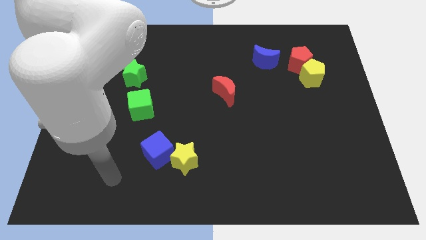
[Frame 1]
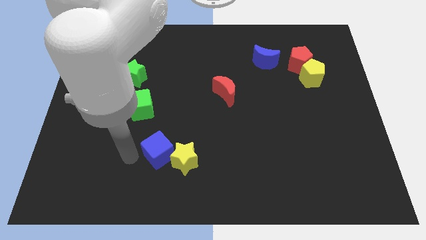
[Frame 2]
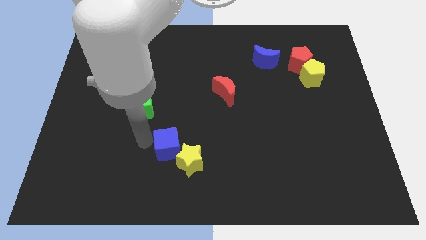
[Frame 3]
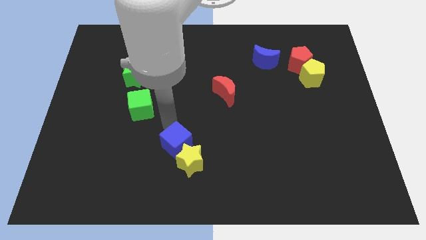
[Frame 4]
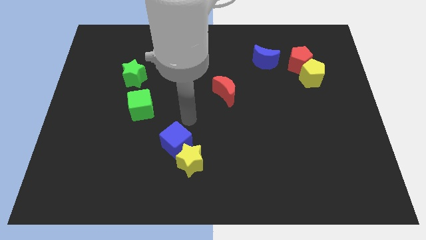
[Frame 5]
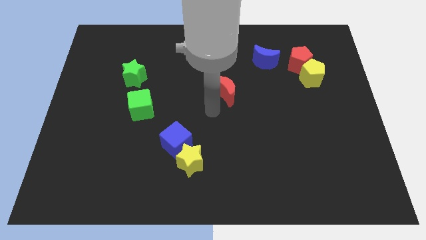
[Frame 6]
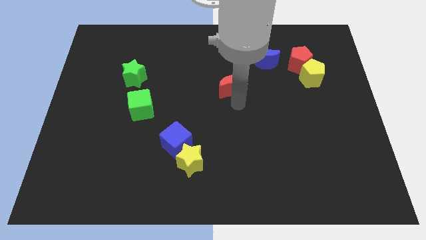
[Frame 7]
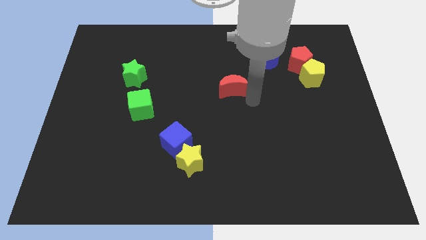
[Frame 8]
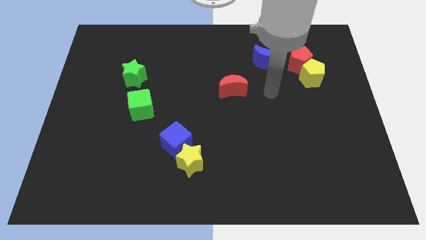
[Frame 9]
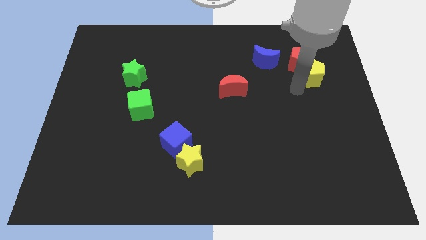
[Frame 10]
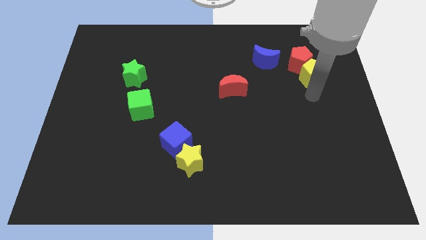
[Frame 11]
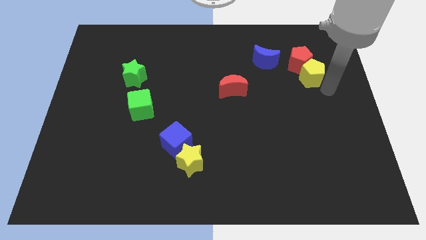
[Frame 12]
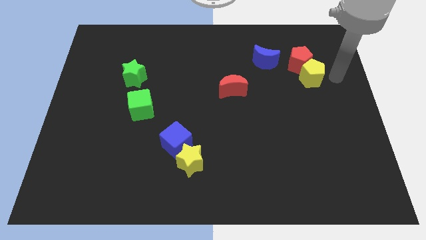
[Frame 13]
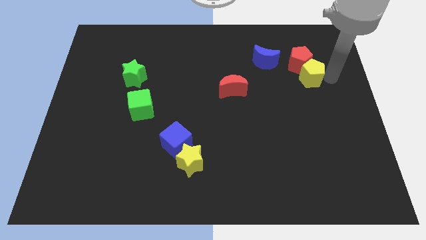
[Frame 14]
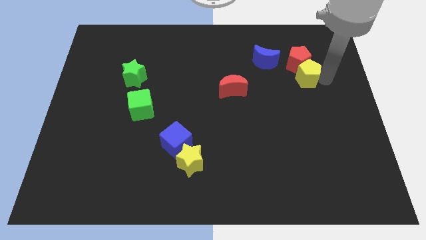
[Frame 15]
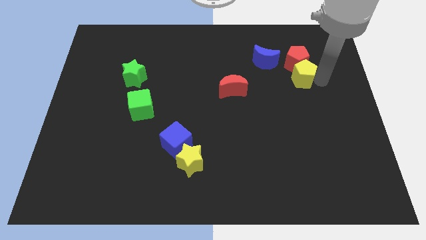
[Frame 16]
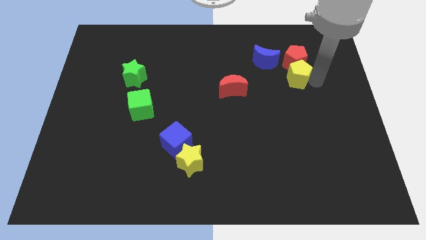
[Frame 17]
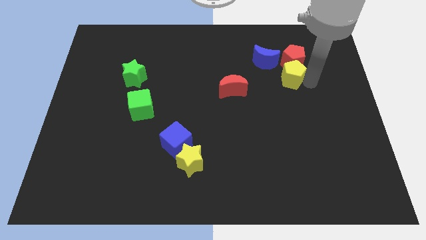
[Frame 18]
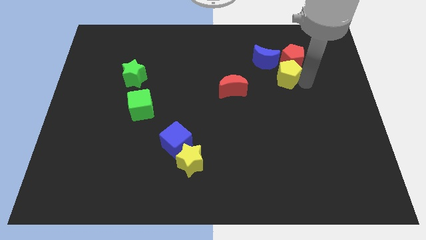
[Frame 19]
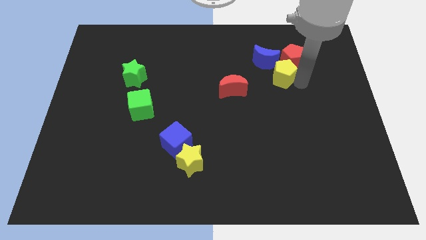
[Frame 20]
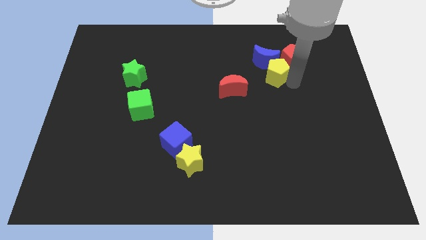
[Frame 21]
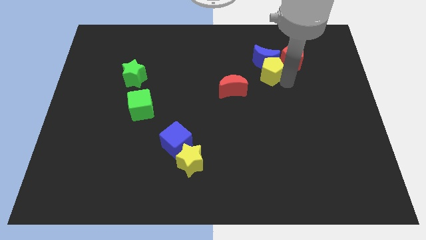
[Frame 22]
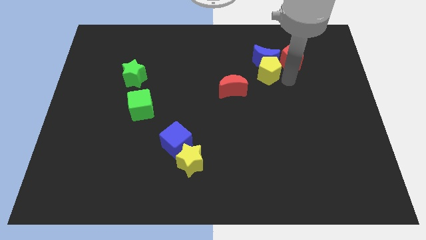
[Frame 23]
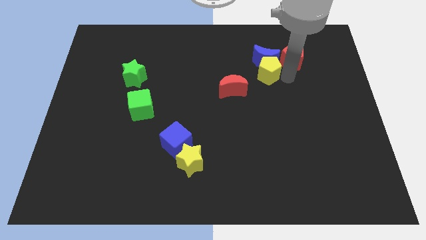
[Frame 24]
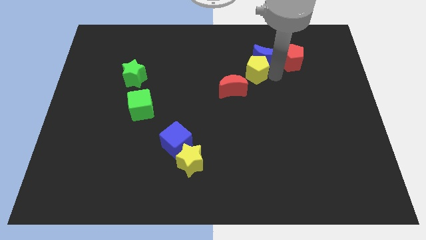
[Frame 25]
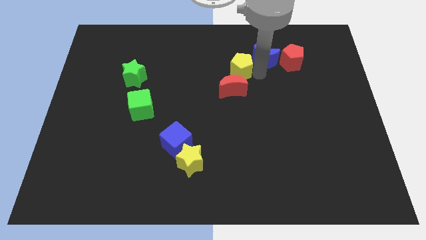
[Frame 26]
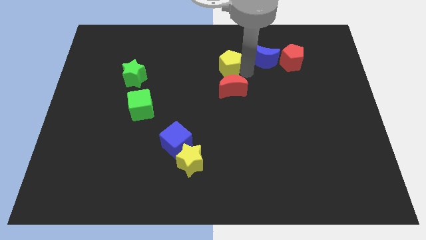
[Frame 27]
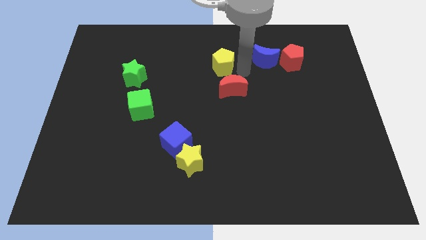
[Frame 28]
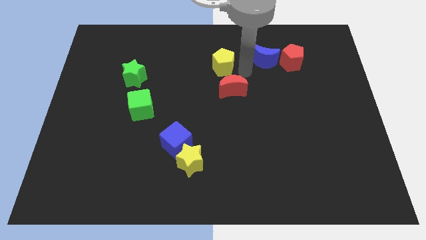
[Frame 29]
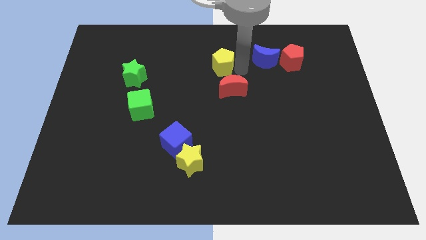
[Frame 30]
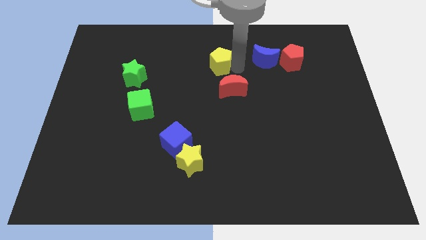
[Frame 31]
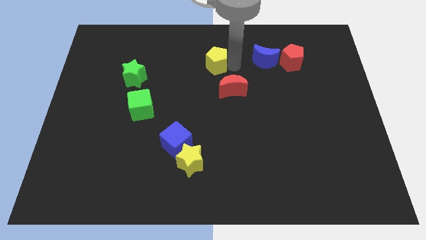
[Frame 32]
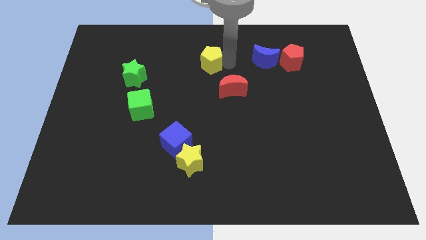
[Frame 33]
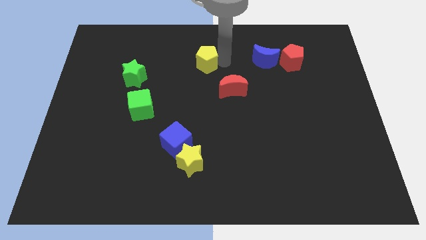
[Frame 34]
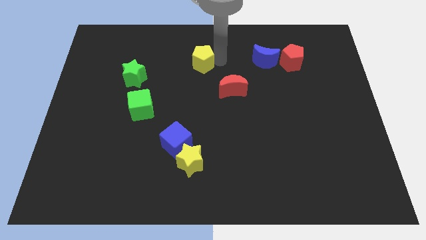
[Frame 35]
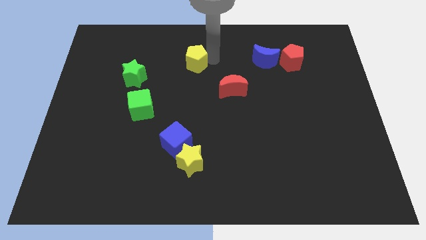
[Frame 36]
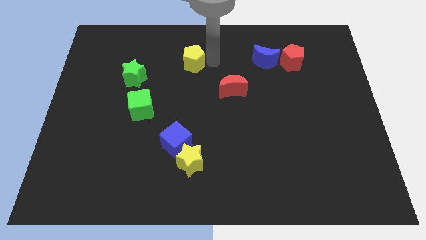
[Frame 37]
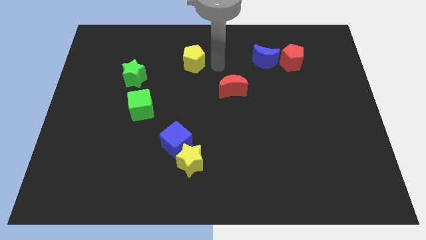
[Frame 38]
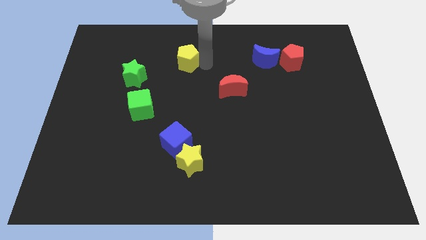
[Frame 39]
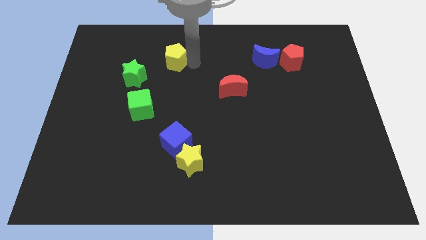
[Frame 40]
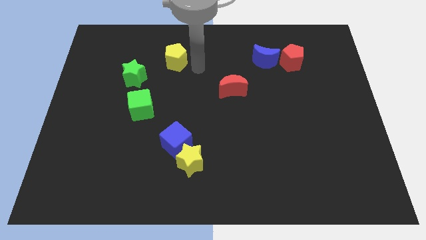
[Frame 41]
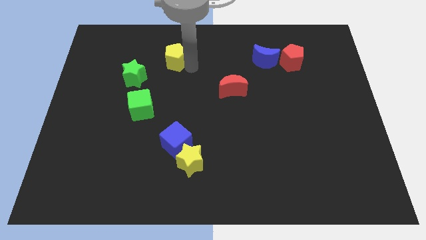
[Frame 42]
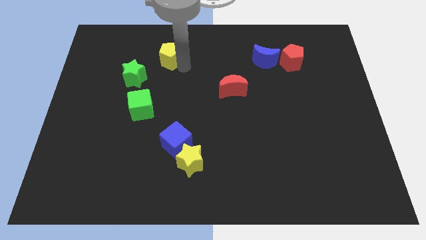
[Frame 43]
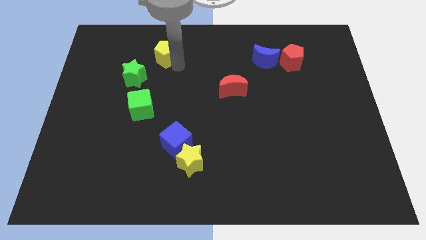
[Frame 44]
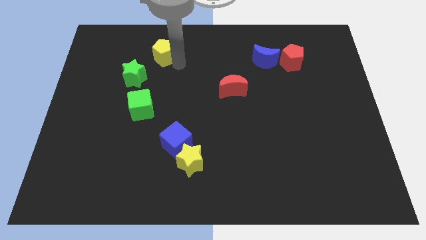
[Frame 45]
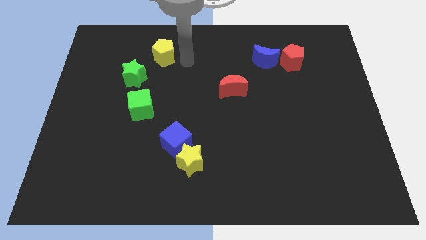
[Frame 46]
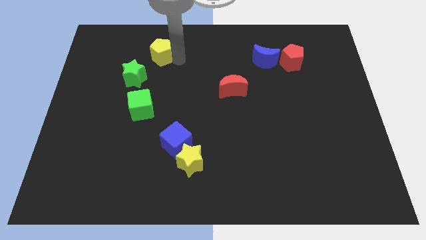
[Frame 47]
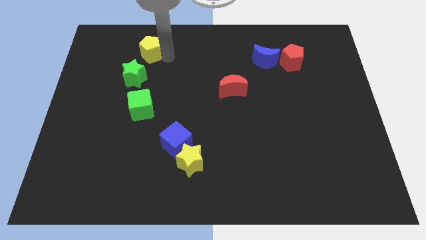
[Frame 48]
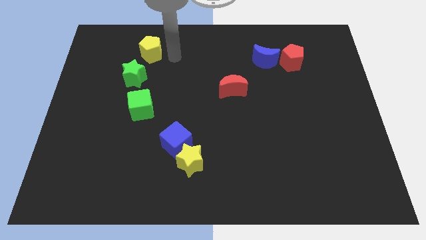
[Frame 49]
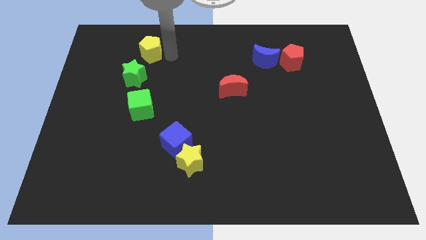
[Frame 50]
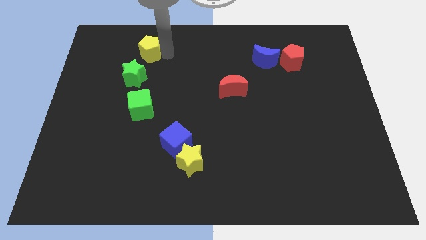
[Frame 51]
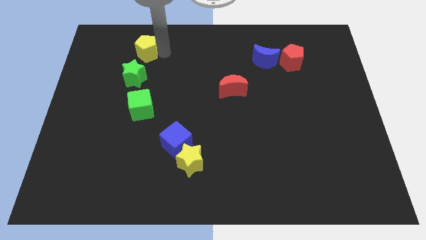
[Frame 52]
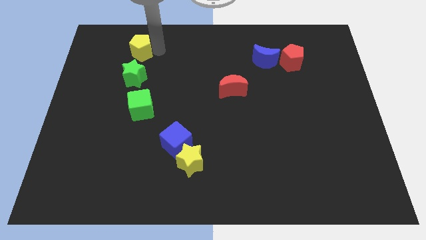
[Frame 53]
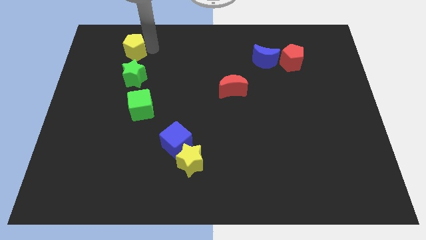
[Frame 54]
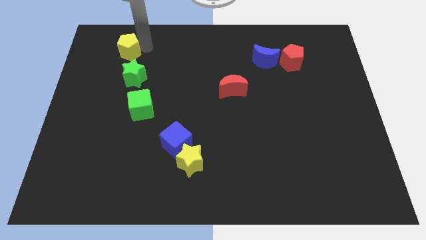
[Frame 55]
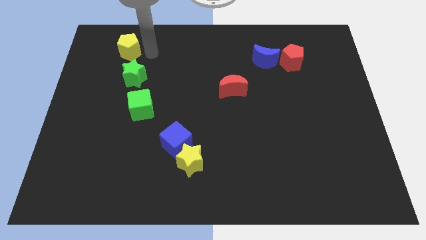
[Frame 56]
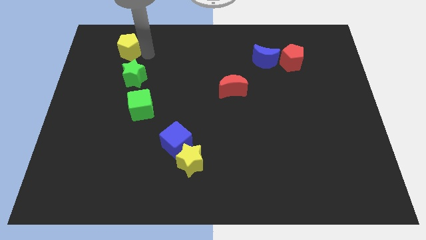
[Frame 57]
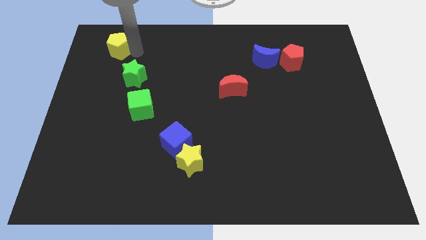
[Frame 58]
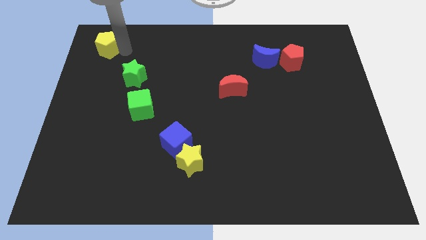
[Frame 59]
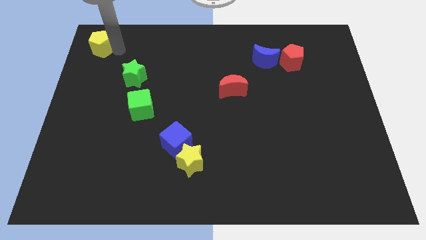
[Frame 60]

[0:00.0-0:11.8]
move the yellow pentagon to the top left corner
